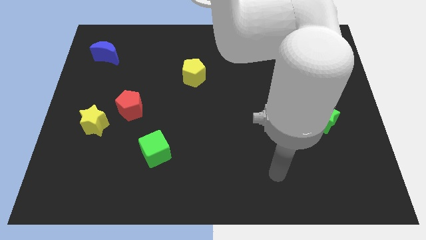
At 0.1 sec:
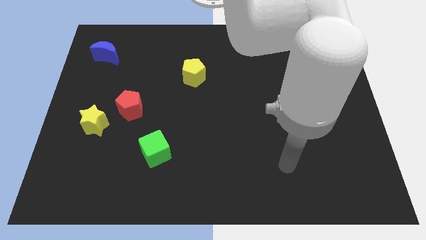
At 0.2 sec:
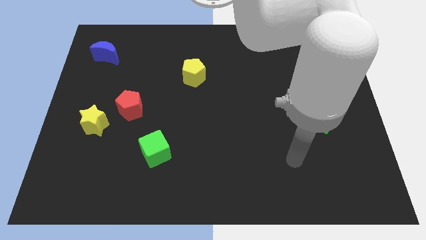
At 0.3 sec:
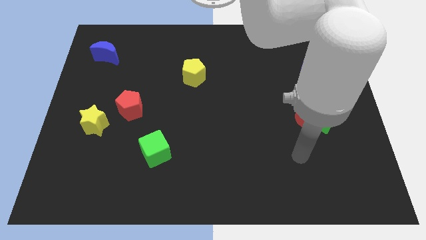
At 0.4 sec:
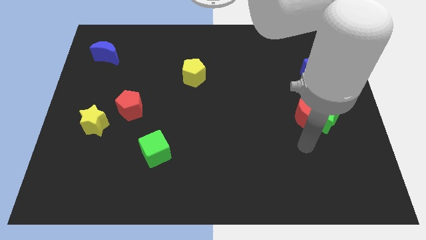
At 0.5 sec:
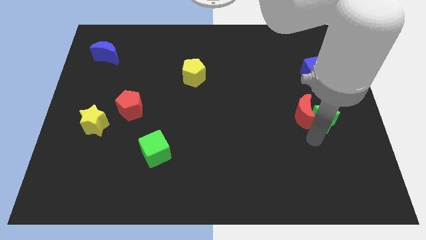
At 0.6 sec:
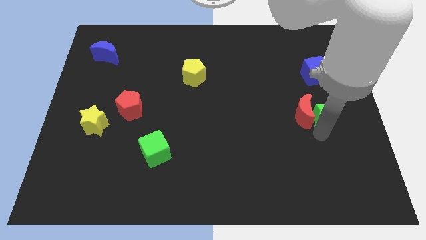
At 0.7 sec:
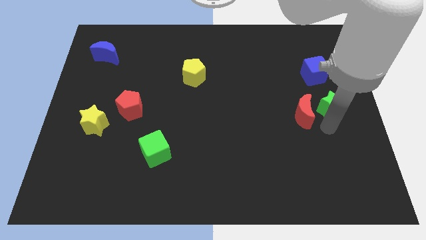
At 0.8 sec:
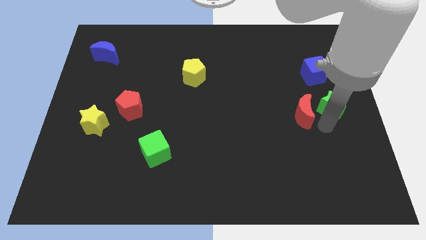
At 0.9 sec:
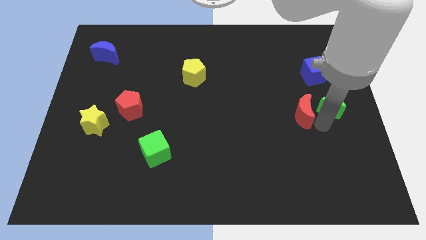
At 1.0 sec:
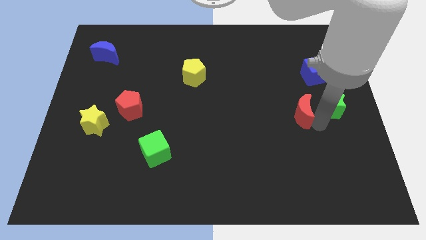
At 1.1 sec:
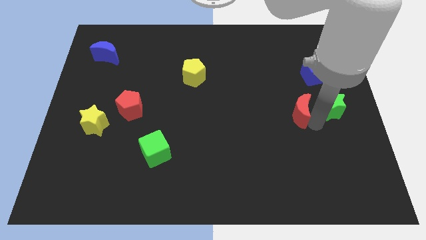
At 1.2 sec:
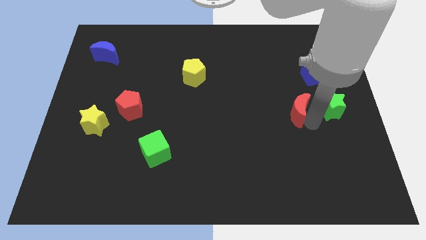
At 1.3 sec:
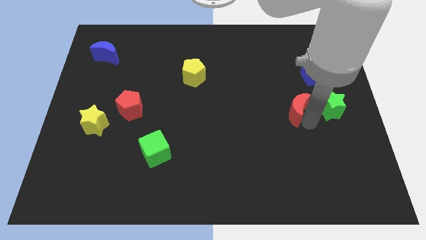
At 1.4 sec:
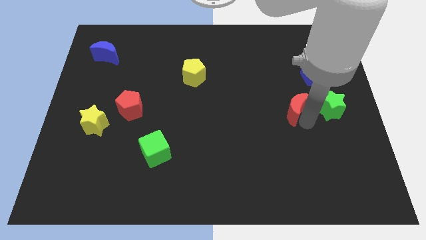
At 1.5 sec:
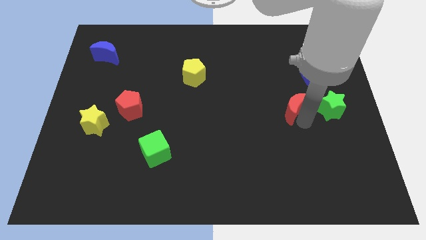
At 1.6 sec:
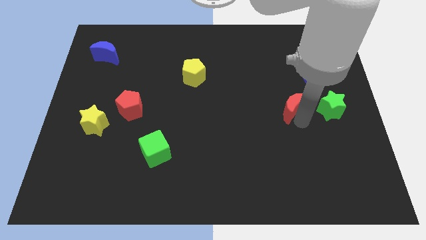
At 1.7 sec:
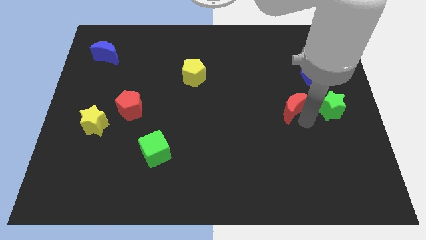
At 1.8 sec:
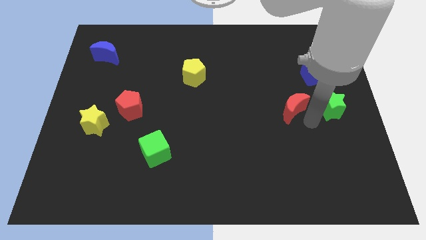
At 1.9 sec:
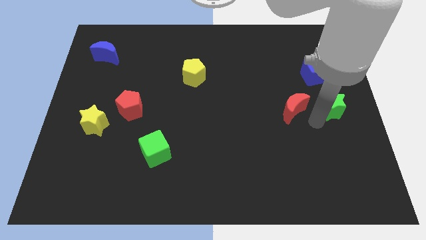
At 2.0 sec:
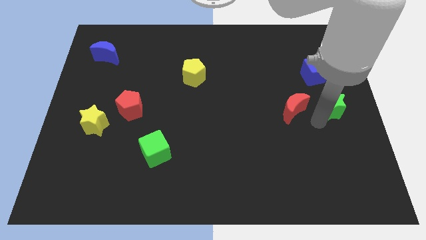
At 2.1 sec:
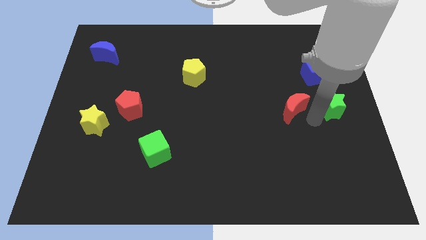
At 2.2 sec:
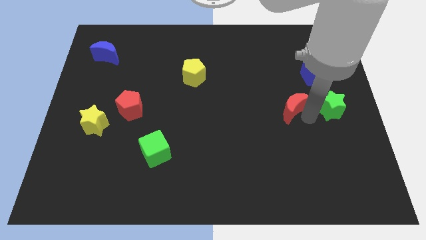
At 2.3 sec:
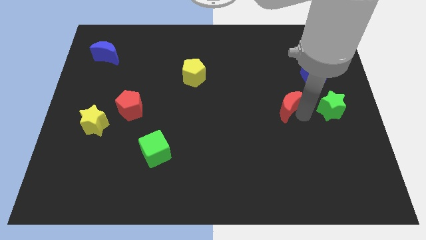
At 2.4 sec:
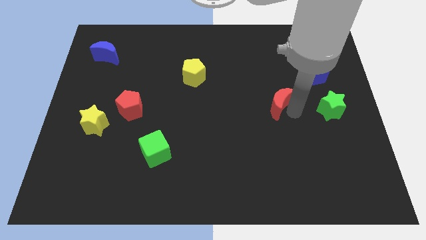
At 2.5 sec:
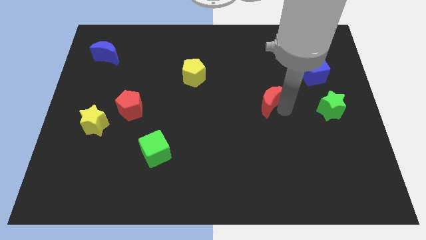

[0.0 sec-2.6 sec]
slide the red moon up and then left a little bit

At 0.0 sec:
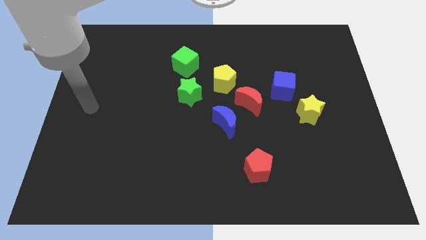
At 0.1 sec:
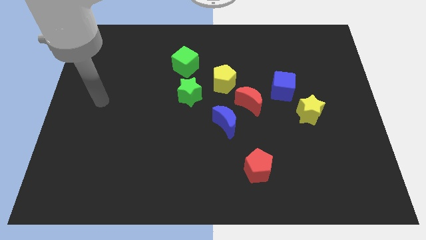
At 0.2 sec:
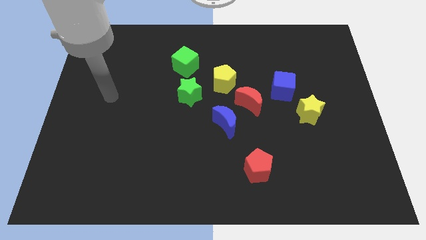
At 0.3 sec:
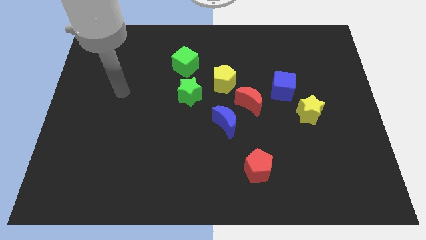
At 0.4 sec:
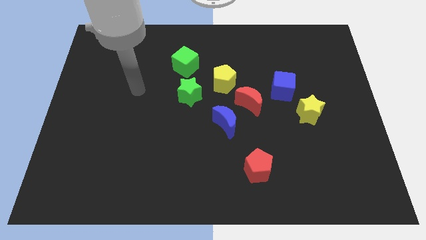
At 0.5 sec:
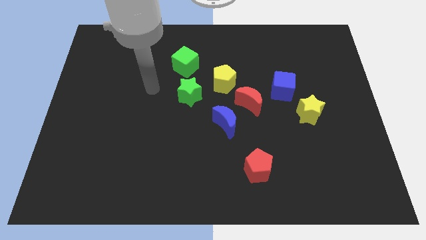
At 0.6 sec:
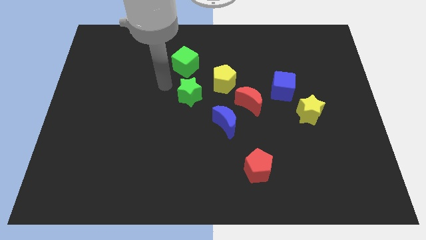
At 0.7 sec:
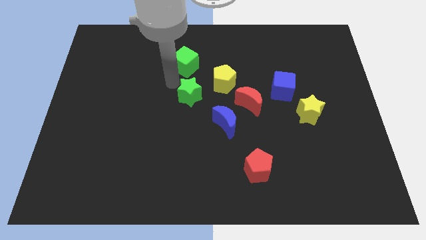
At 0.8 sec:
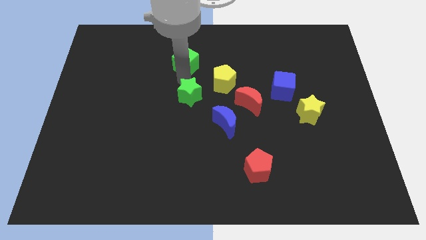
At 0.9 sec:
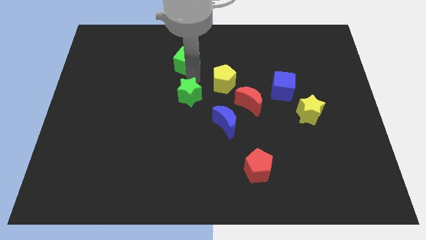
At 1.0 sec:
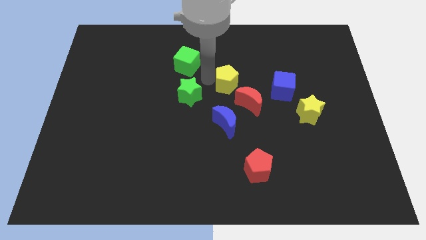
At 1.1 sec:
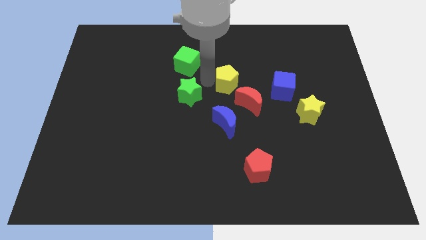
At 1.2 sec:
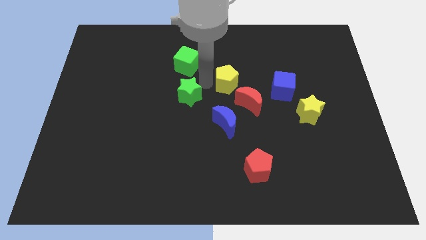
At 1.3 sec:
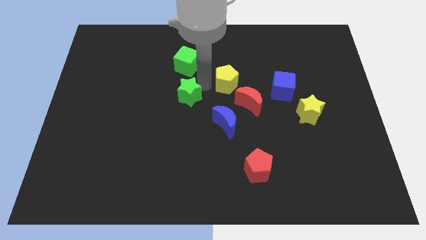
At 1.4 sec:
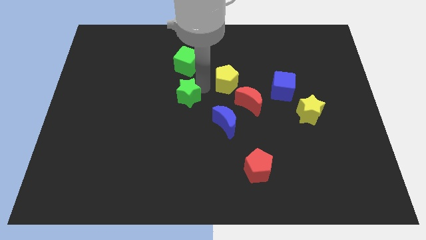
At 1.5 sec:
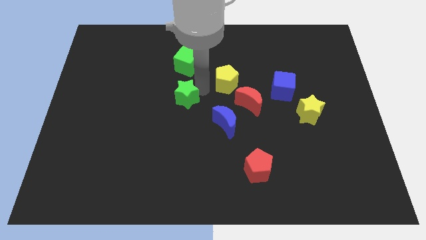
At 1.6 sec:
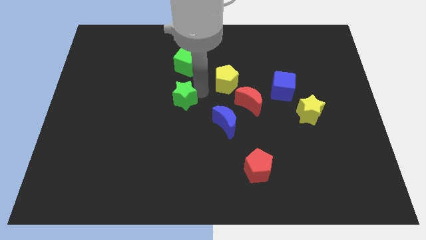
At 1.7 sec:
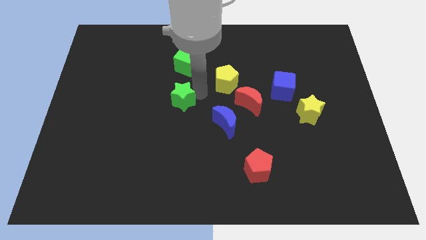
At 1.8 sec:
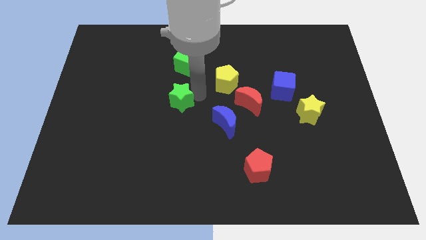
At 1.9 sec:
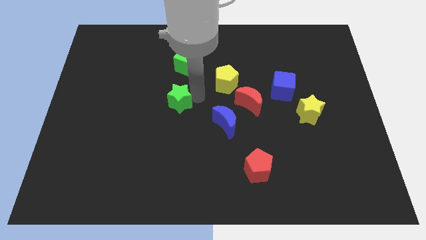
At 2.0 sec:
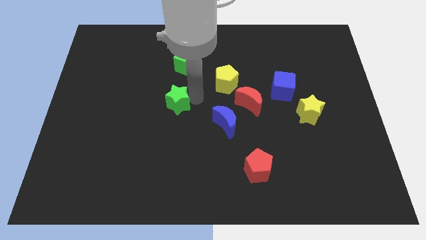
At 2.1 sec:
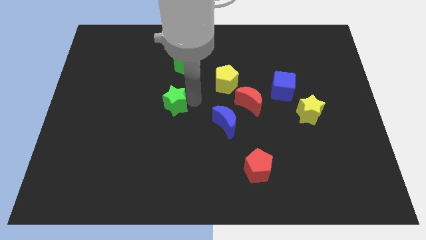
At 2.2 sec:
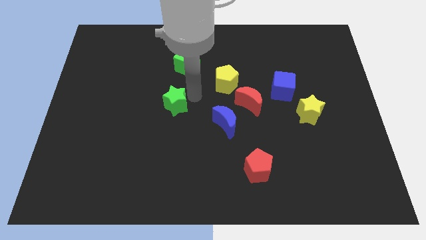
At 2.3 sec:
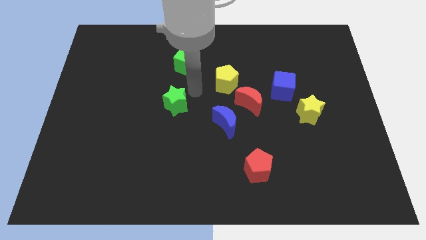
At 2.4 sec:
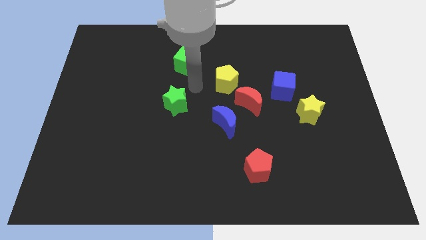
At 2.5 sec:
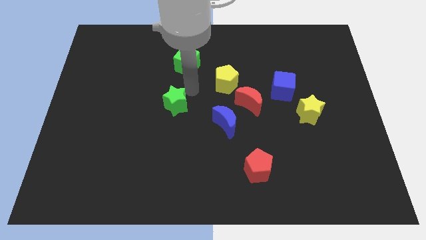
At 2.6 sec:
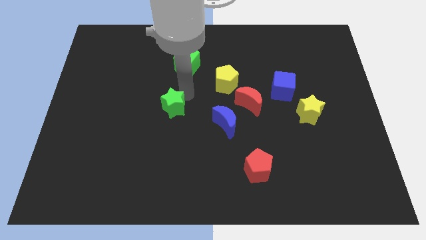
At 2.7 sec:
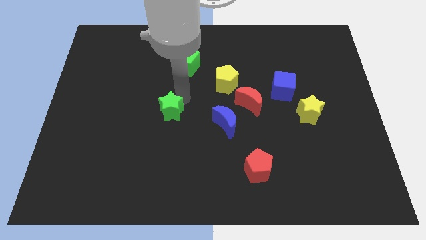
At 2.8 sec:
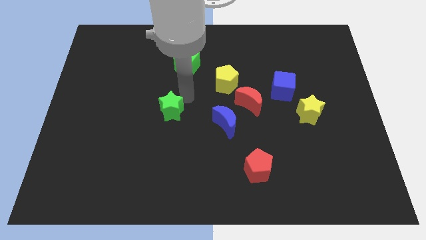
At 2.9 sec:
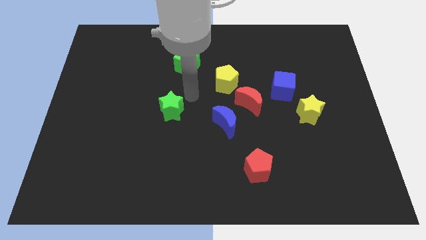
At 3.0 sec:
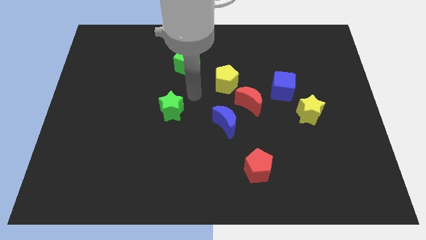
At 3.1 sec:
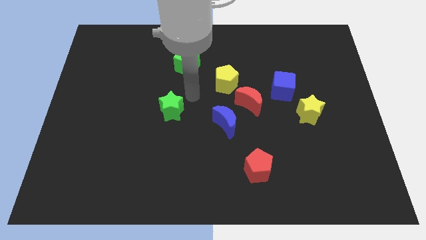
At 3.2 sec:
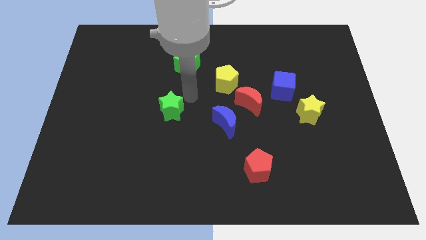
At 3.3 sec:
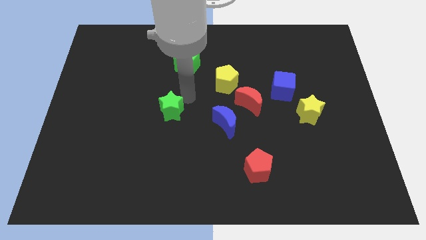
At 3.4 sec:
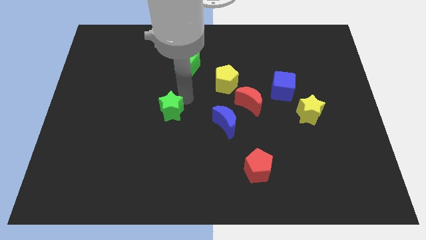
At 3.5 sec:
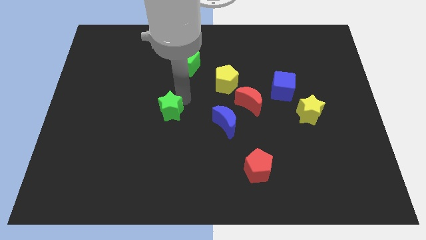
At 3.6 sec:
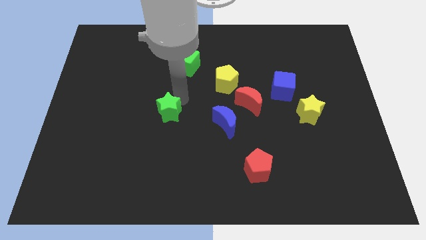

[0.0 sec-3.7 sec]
slide the green star diagonally down and left somewhat

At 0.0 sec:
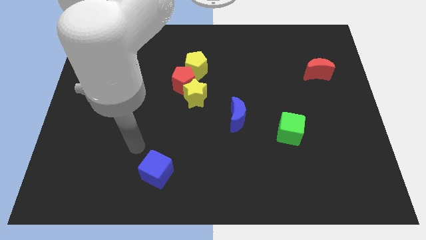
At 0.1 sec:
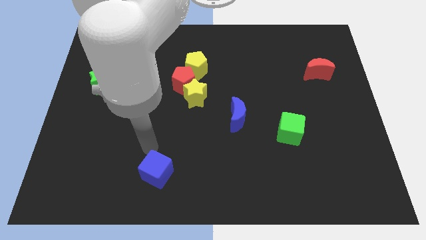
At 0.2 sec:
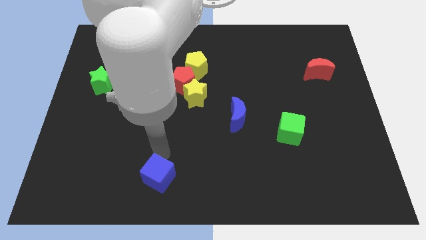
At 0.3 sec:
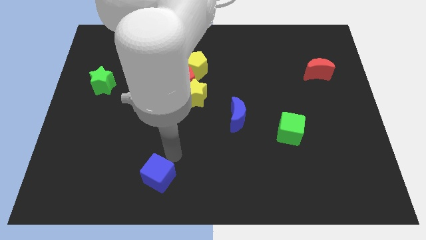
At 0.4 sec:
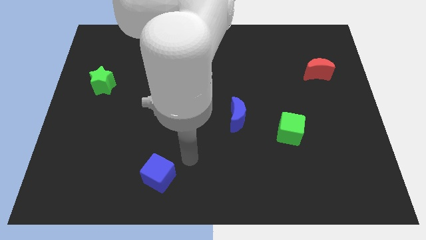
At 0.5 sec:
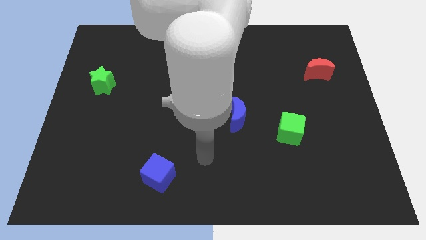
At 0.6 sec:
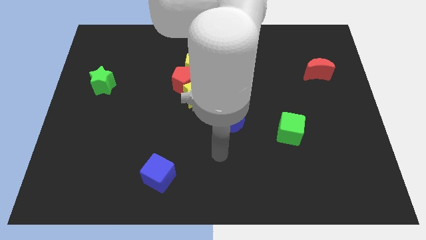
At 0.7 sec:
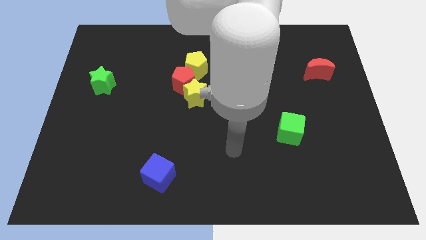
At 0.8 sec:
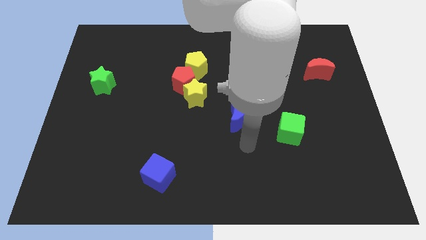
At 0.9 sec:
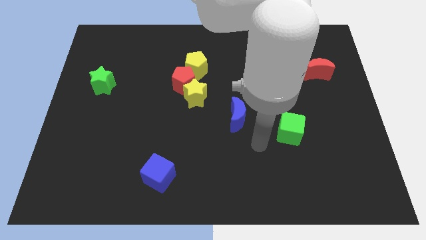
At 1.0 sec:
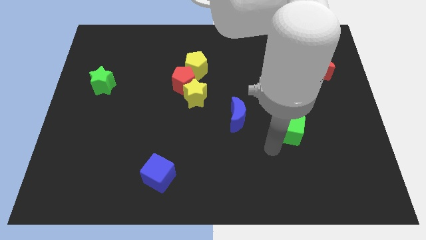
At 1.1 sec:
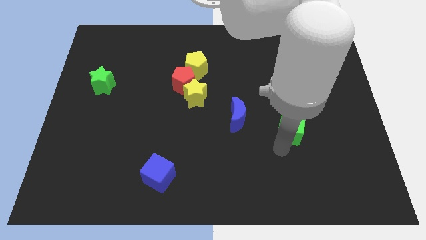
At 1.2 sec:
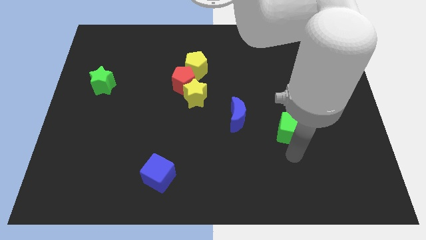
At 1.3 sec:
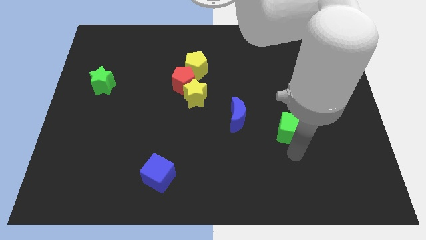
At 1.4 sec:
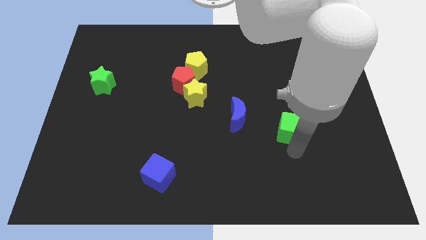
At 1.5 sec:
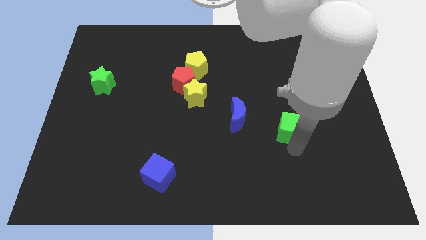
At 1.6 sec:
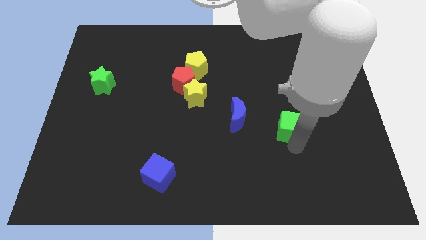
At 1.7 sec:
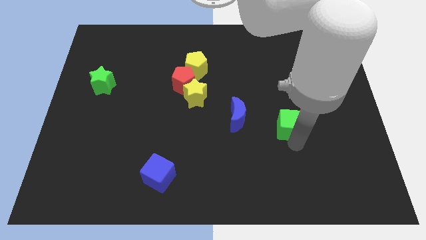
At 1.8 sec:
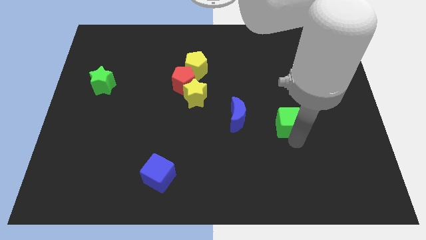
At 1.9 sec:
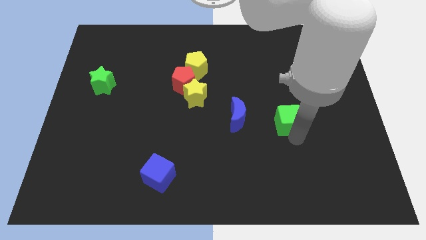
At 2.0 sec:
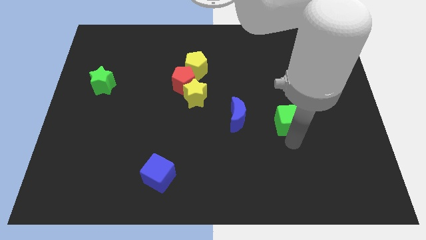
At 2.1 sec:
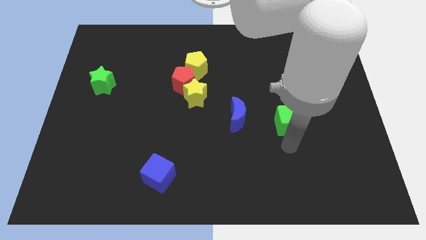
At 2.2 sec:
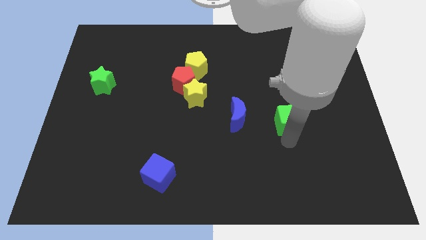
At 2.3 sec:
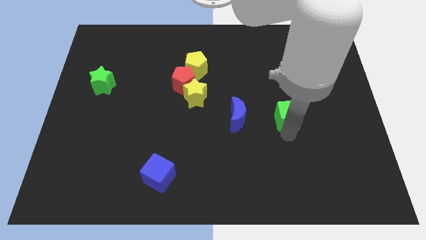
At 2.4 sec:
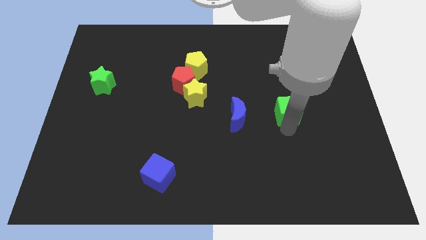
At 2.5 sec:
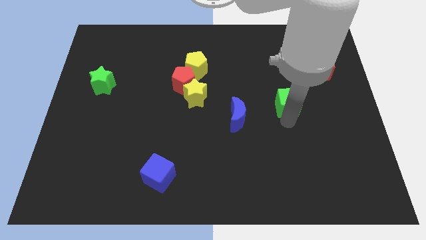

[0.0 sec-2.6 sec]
slide the green cube up slightly
